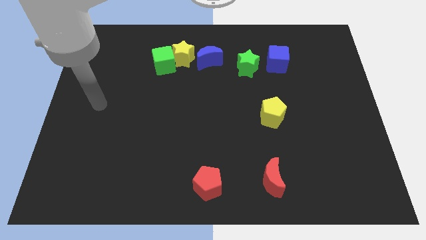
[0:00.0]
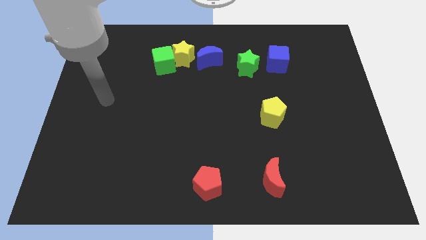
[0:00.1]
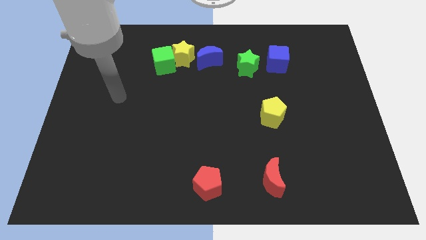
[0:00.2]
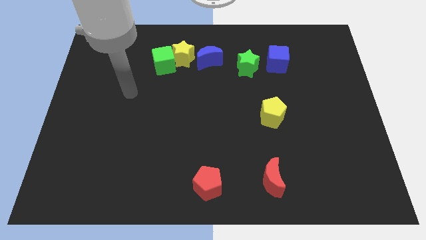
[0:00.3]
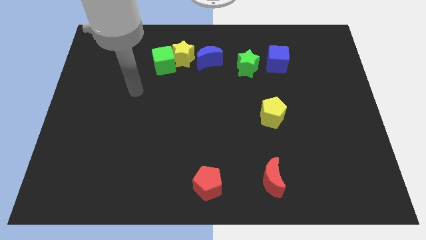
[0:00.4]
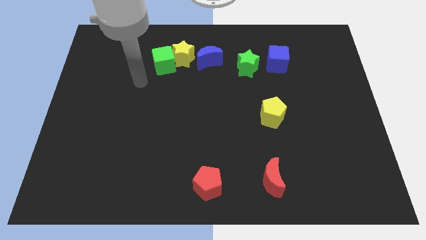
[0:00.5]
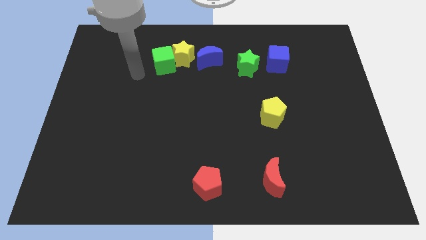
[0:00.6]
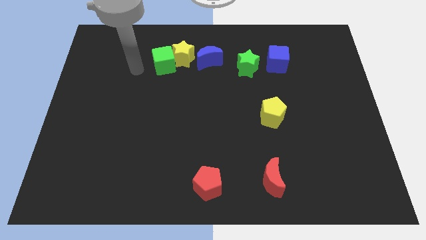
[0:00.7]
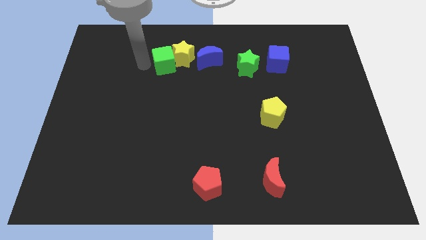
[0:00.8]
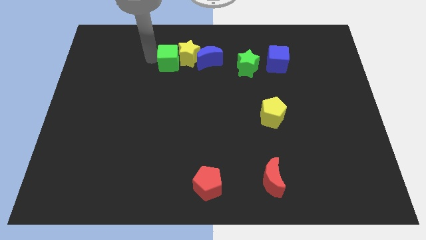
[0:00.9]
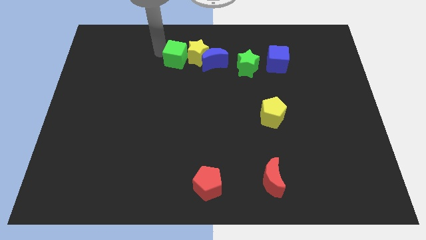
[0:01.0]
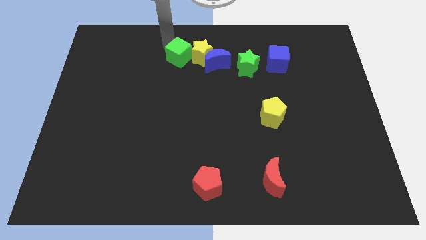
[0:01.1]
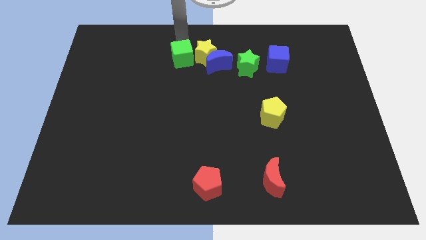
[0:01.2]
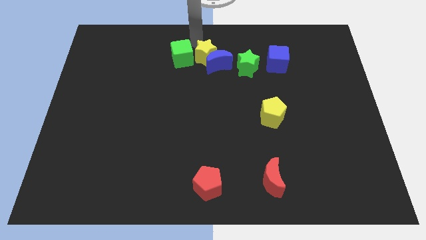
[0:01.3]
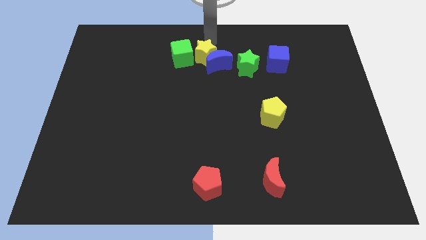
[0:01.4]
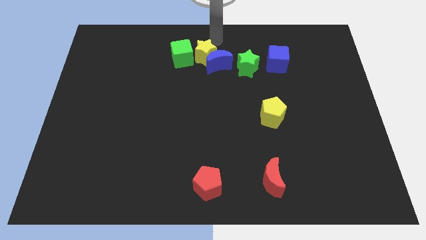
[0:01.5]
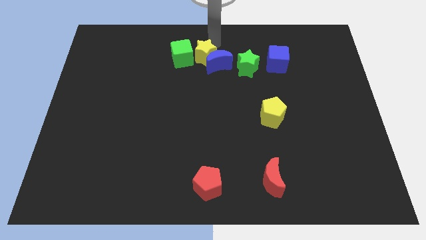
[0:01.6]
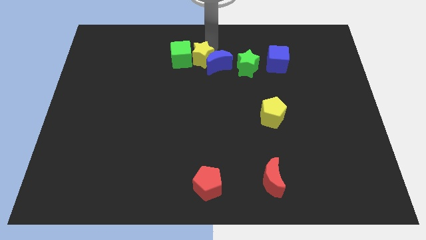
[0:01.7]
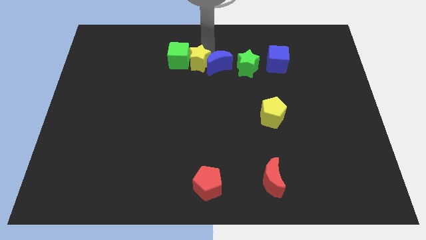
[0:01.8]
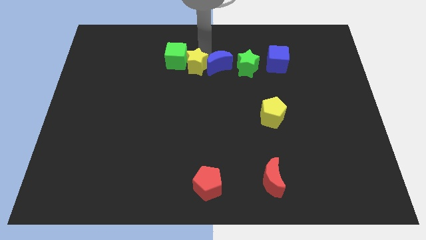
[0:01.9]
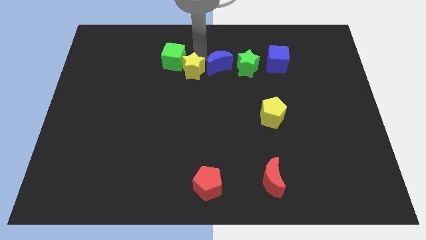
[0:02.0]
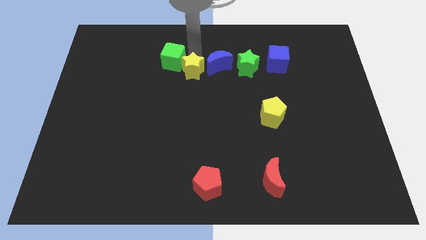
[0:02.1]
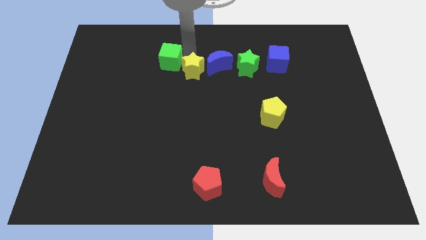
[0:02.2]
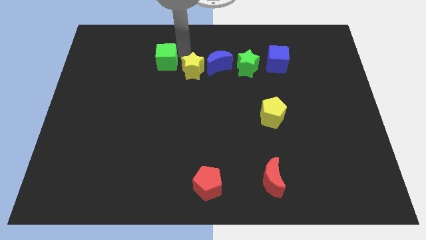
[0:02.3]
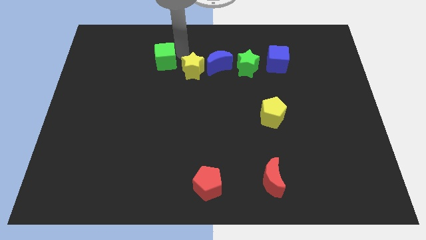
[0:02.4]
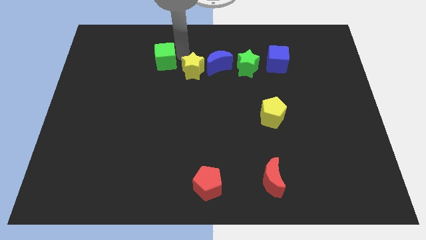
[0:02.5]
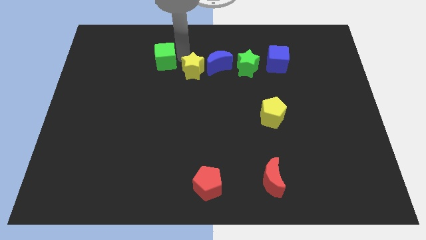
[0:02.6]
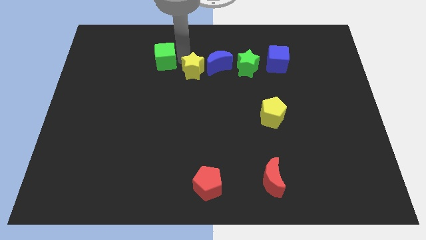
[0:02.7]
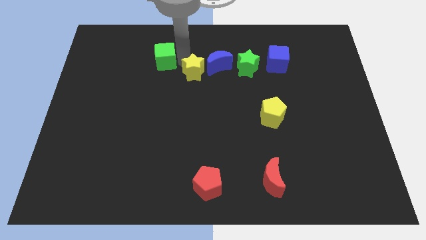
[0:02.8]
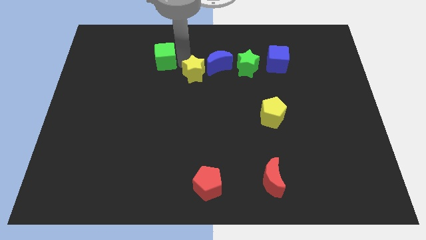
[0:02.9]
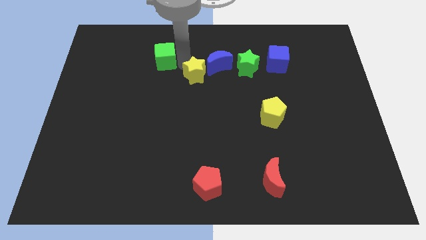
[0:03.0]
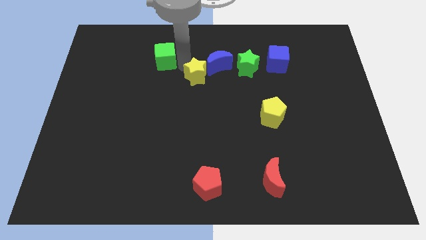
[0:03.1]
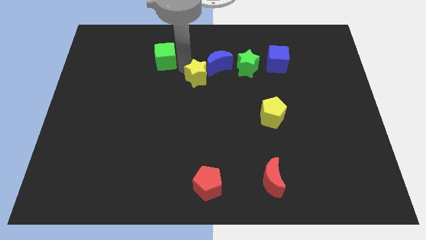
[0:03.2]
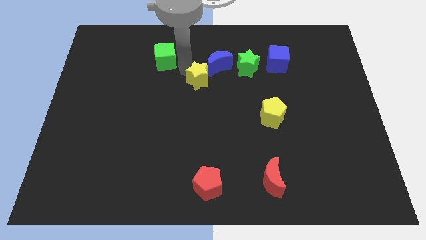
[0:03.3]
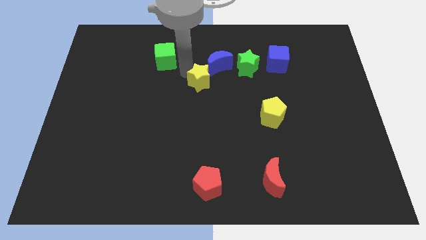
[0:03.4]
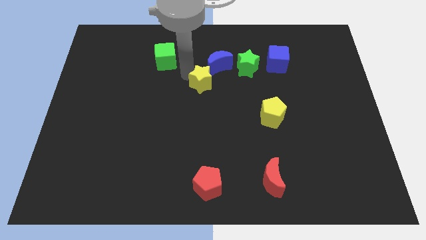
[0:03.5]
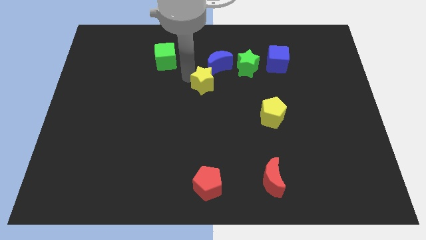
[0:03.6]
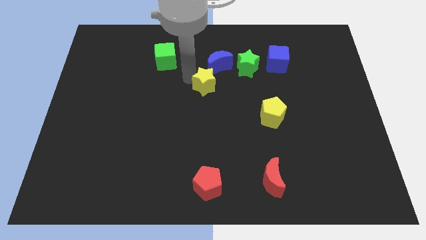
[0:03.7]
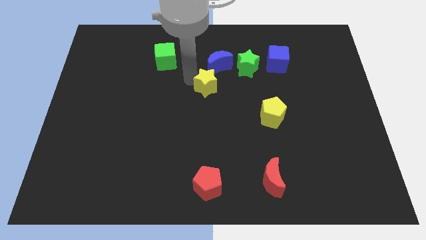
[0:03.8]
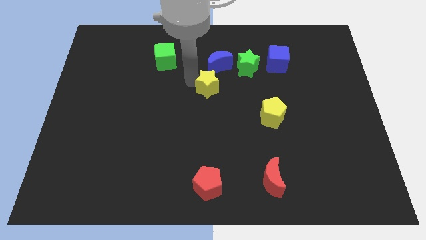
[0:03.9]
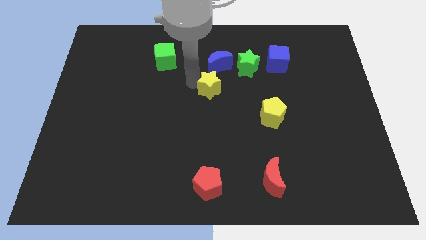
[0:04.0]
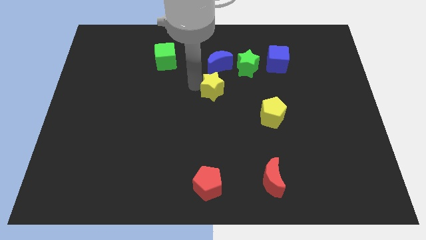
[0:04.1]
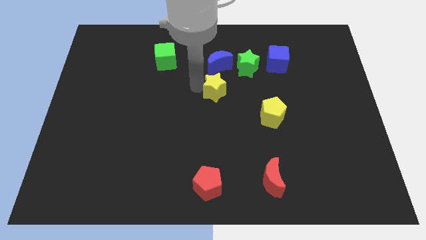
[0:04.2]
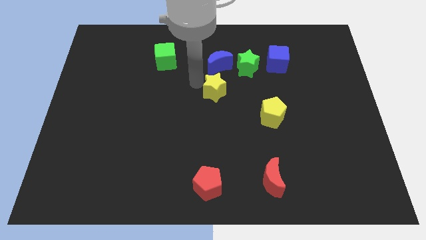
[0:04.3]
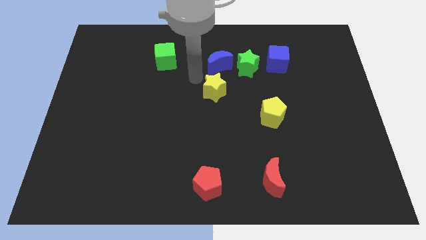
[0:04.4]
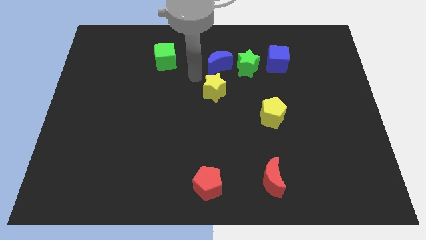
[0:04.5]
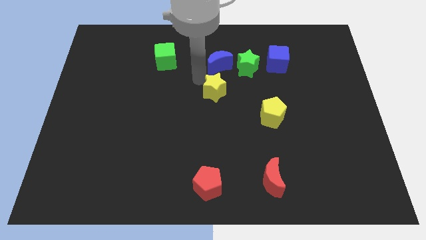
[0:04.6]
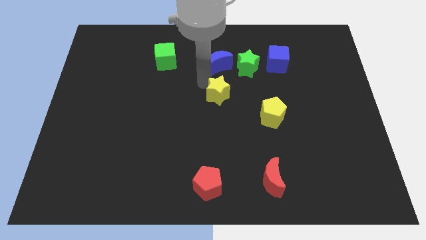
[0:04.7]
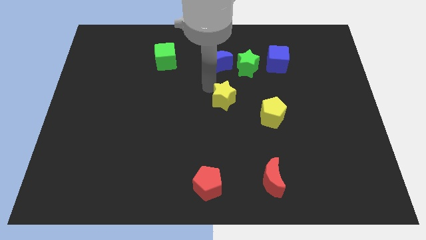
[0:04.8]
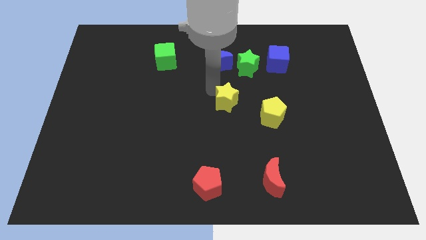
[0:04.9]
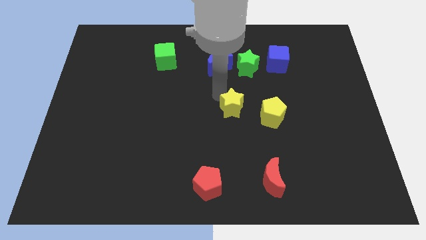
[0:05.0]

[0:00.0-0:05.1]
move the yellow star downwards and to the right

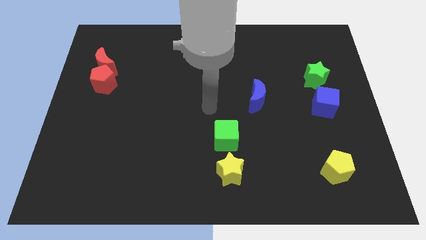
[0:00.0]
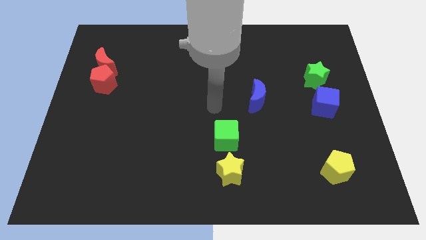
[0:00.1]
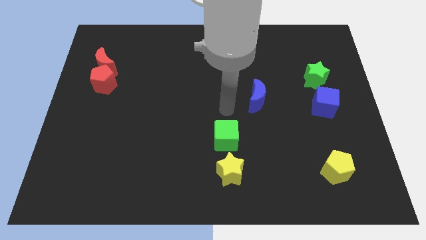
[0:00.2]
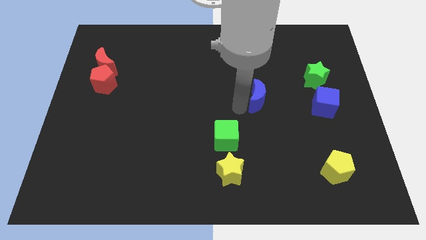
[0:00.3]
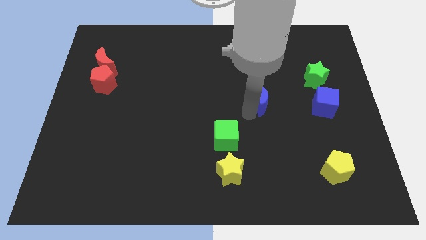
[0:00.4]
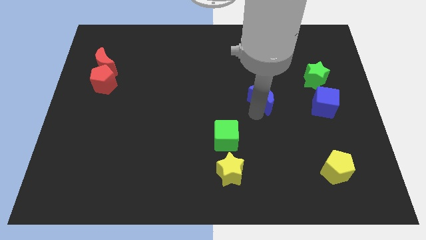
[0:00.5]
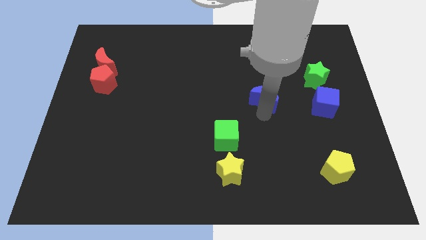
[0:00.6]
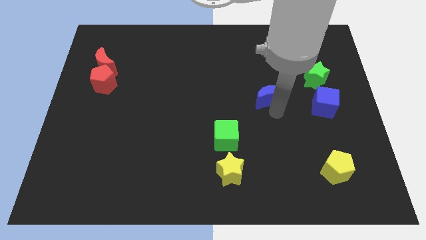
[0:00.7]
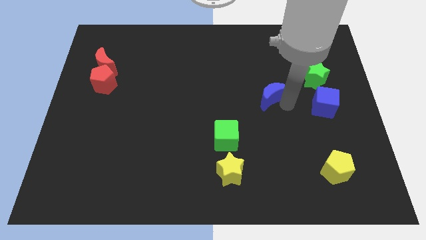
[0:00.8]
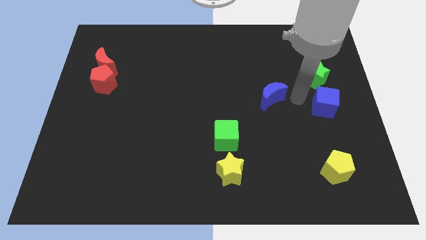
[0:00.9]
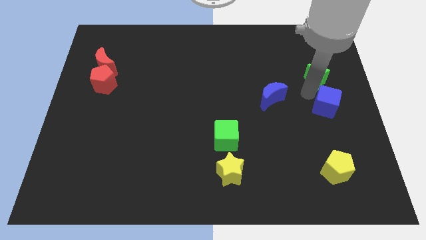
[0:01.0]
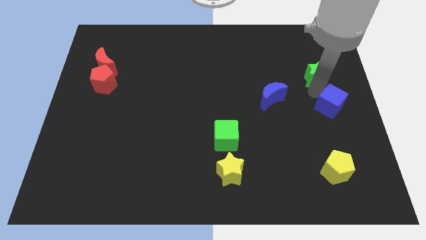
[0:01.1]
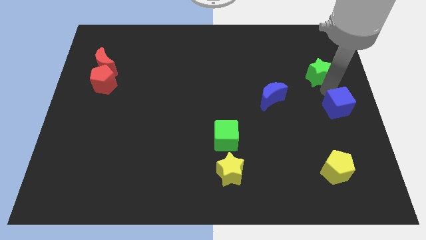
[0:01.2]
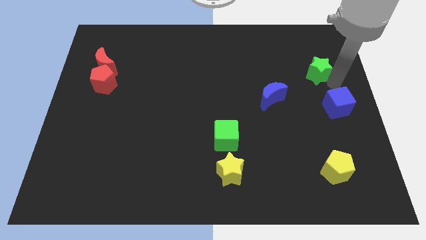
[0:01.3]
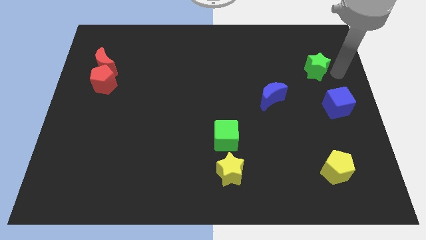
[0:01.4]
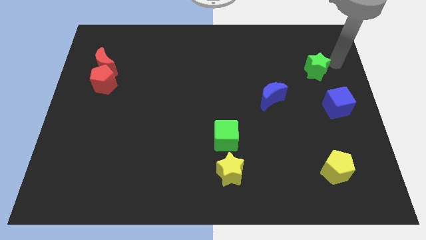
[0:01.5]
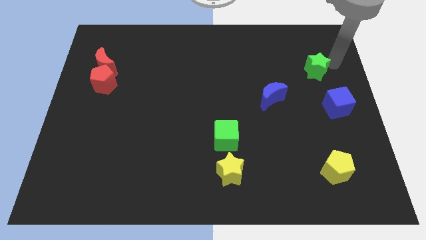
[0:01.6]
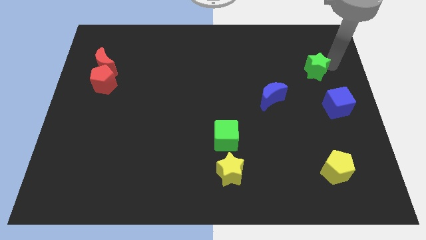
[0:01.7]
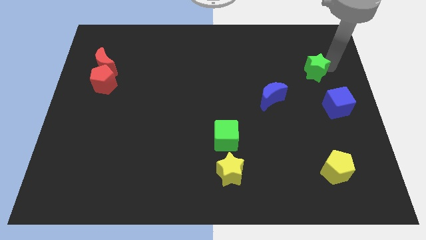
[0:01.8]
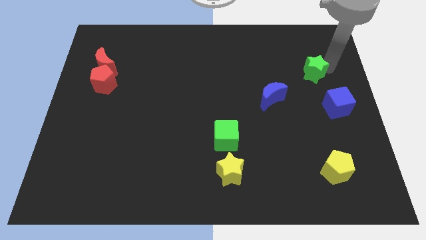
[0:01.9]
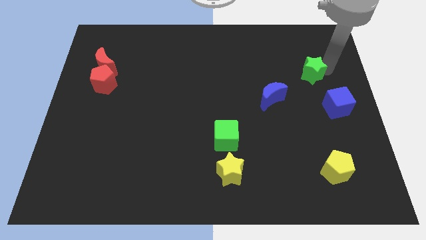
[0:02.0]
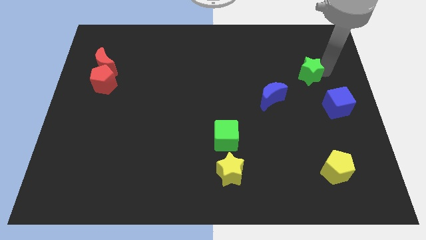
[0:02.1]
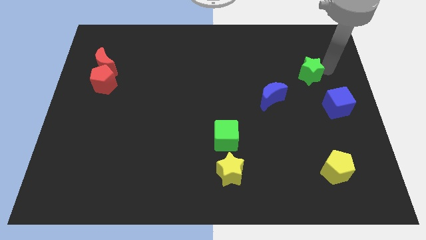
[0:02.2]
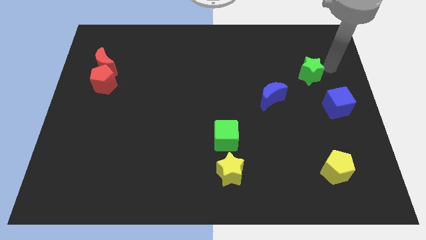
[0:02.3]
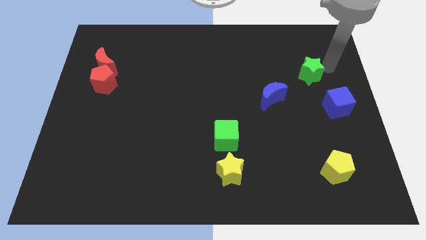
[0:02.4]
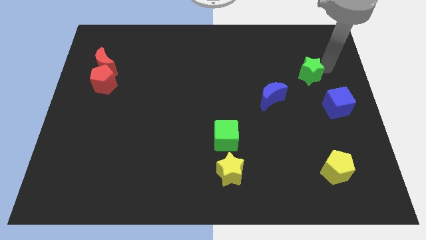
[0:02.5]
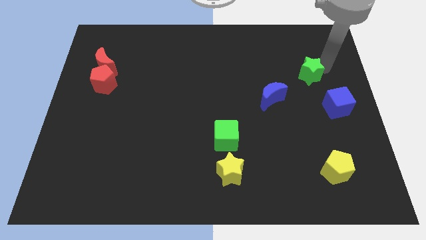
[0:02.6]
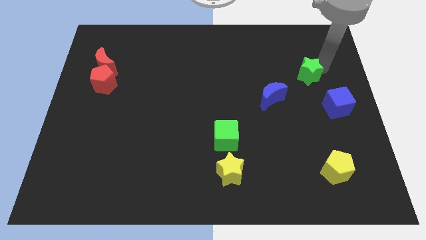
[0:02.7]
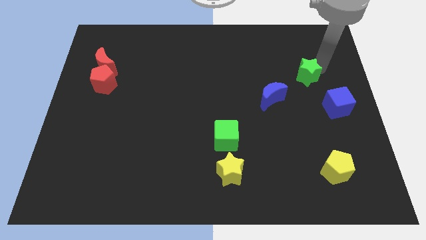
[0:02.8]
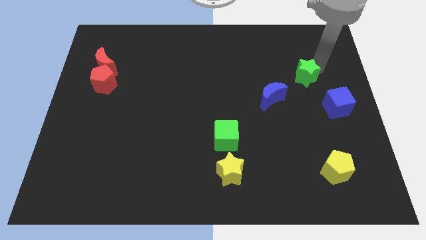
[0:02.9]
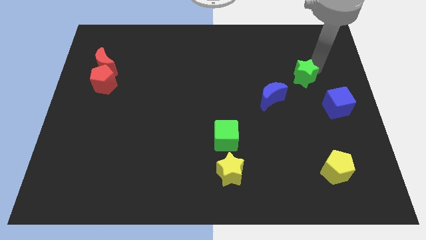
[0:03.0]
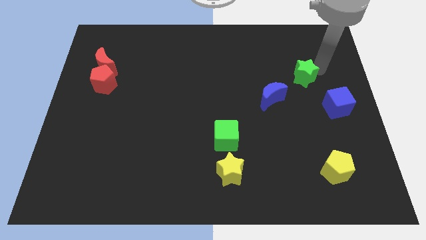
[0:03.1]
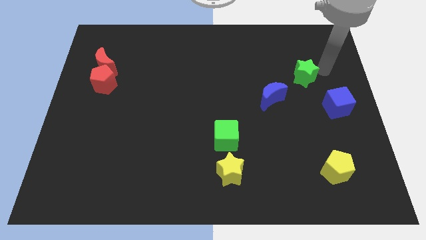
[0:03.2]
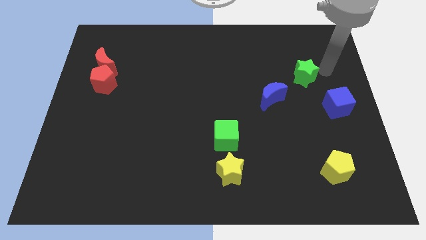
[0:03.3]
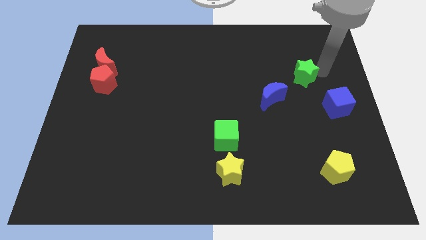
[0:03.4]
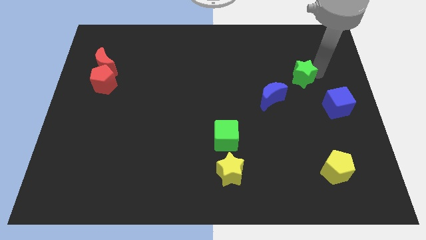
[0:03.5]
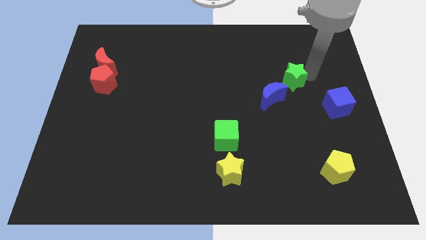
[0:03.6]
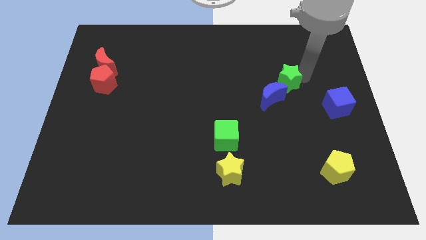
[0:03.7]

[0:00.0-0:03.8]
slightly move the green star left
